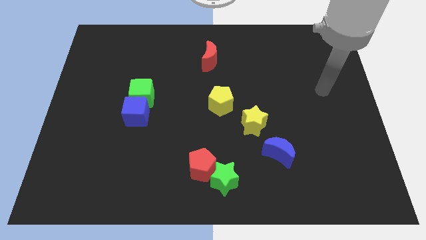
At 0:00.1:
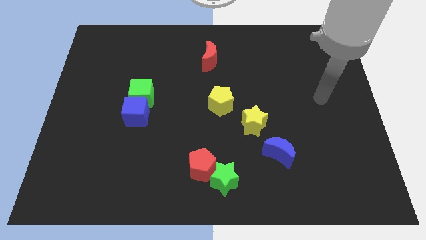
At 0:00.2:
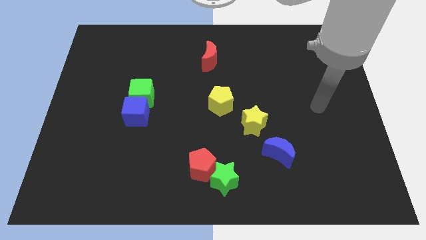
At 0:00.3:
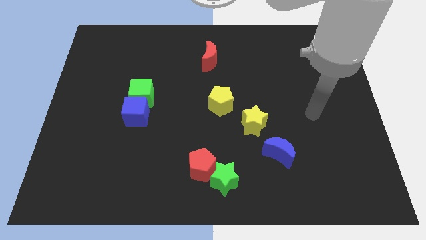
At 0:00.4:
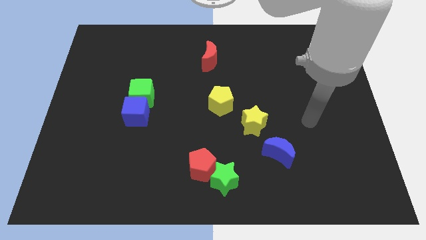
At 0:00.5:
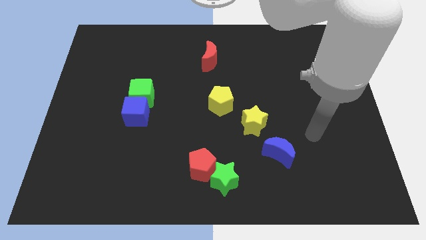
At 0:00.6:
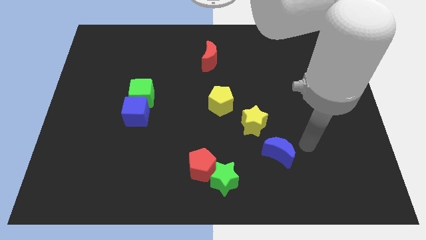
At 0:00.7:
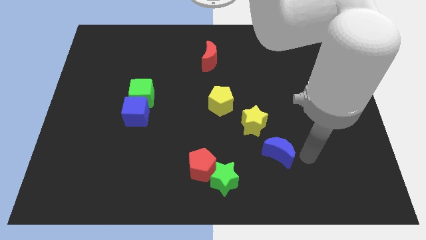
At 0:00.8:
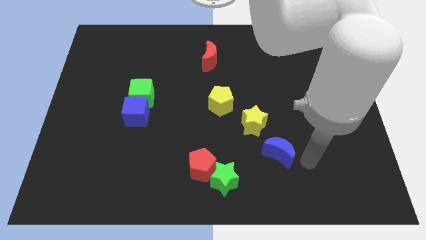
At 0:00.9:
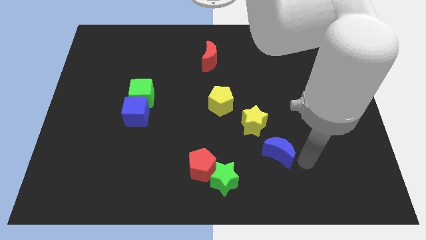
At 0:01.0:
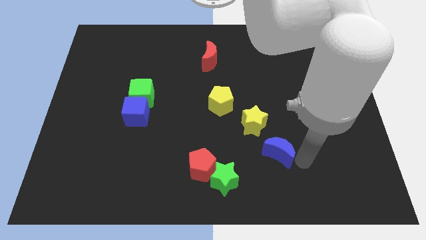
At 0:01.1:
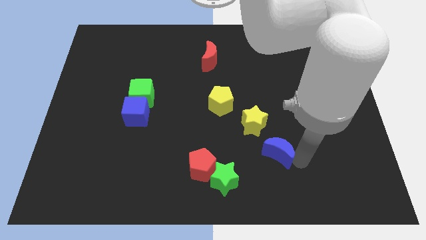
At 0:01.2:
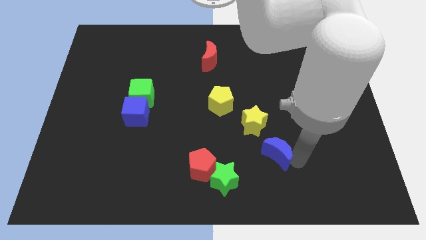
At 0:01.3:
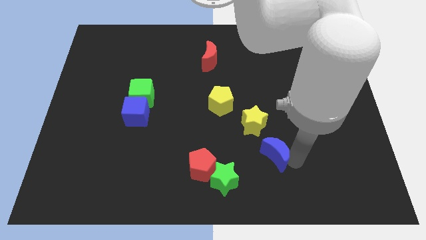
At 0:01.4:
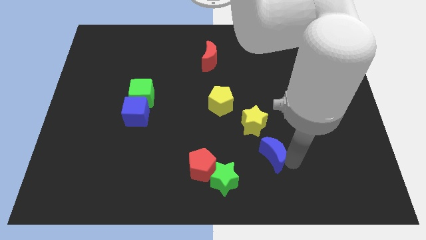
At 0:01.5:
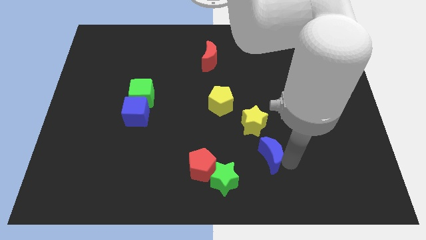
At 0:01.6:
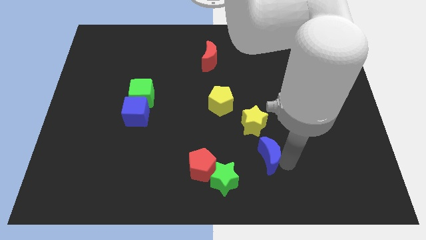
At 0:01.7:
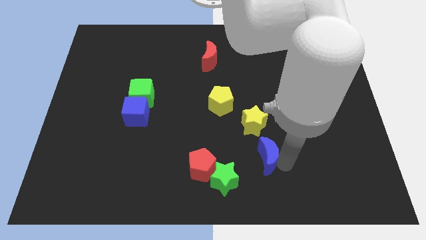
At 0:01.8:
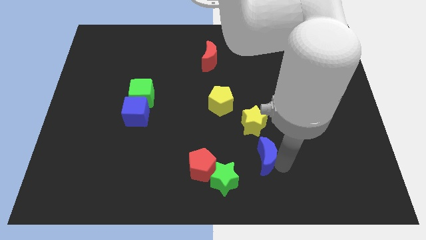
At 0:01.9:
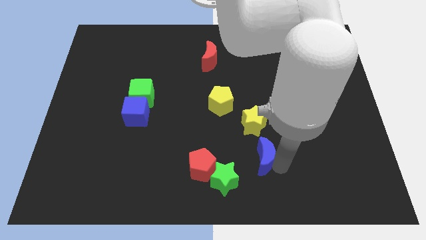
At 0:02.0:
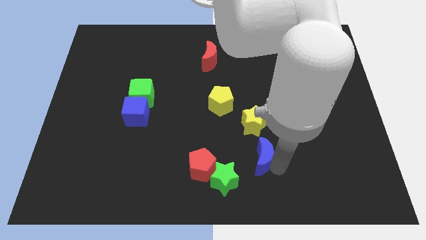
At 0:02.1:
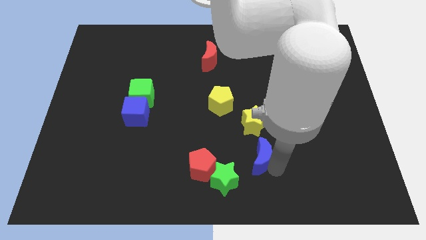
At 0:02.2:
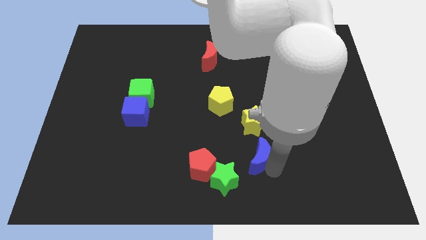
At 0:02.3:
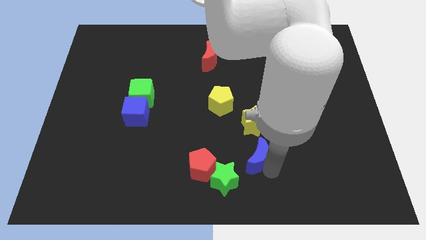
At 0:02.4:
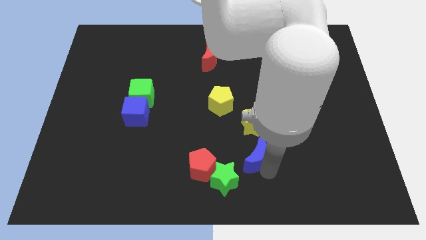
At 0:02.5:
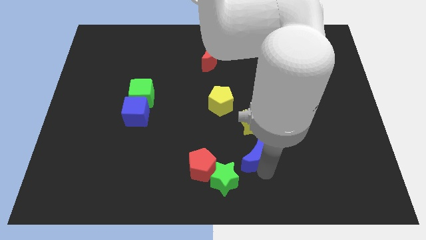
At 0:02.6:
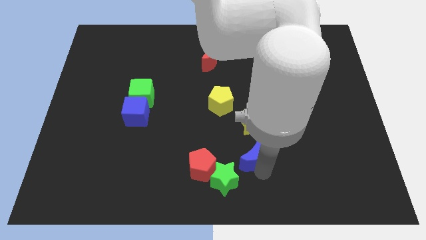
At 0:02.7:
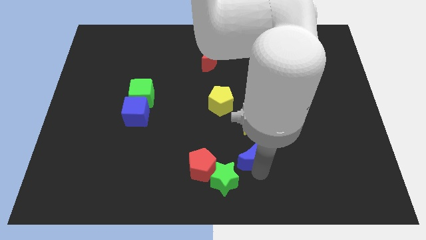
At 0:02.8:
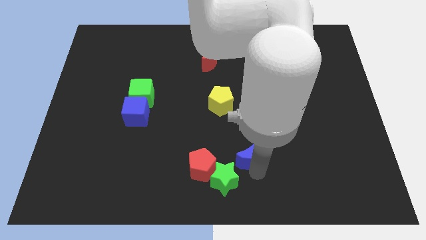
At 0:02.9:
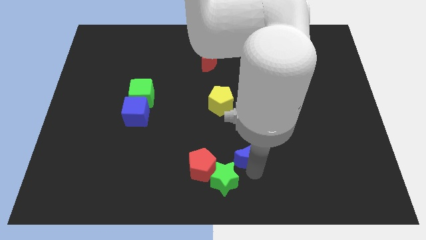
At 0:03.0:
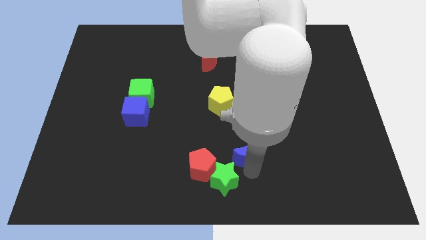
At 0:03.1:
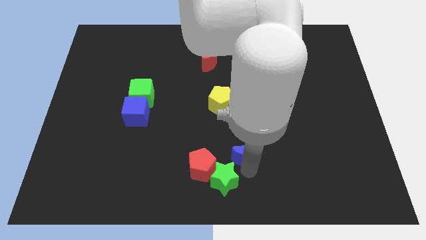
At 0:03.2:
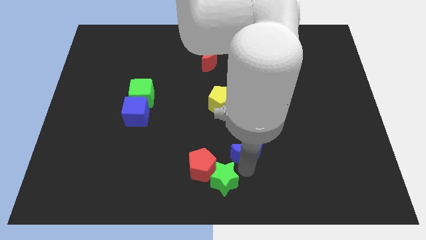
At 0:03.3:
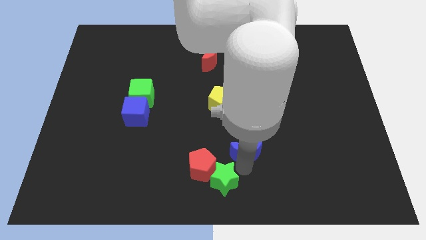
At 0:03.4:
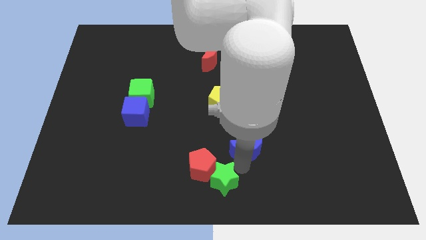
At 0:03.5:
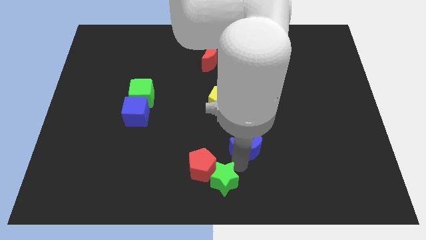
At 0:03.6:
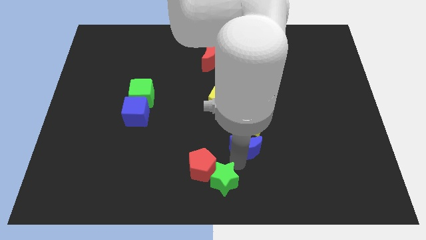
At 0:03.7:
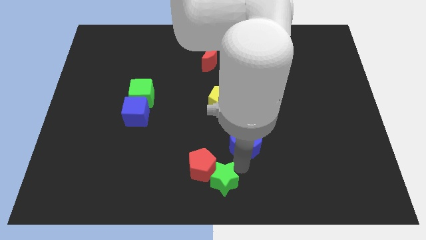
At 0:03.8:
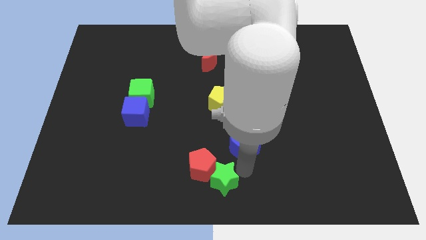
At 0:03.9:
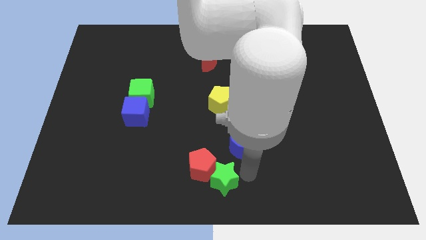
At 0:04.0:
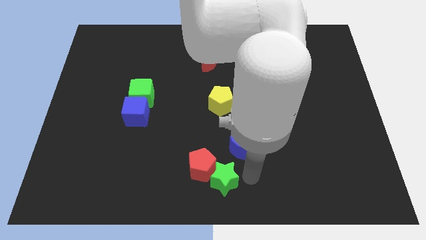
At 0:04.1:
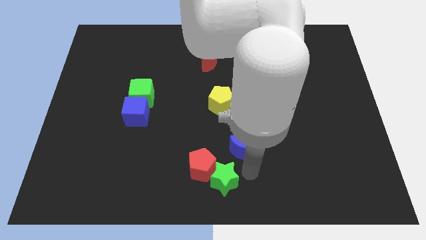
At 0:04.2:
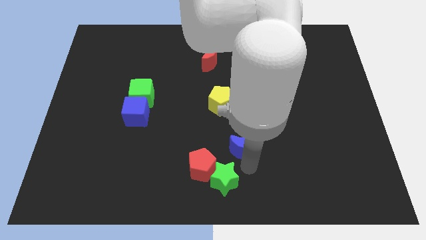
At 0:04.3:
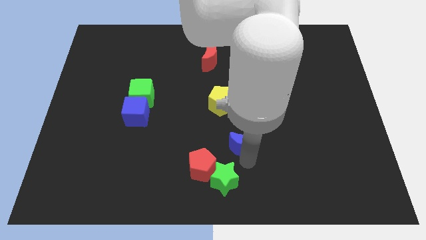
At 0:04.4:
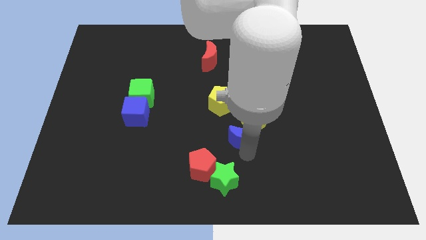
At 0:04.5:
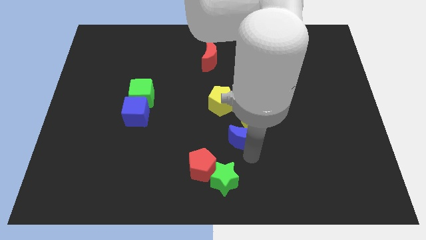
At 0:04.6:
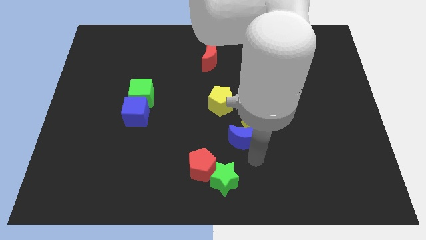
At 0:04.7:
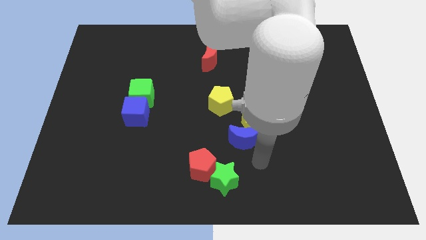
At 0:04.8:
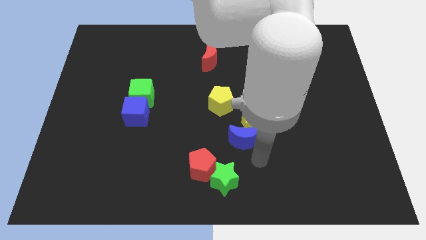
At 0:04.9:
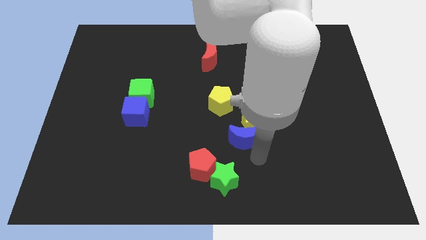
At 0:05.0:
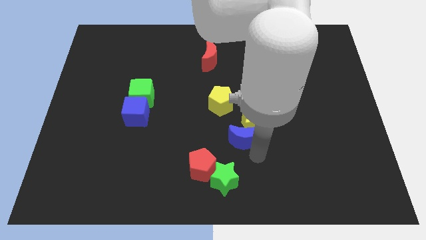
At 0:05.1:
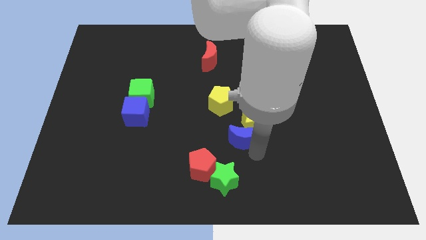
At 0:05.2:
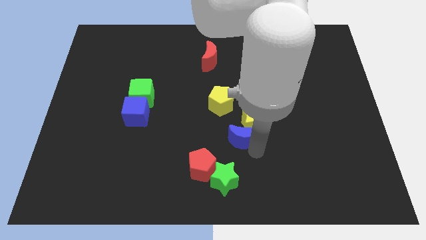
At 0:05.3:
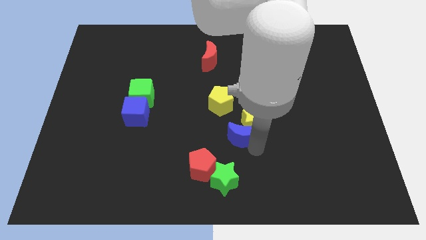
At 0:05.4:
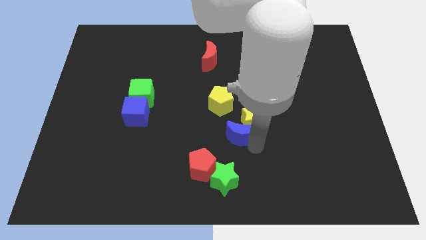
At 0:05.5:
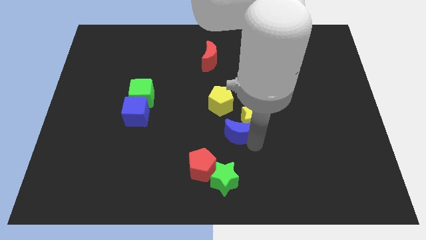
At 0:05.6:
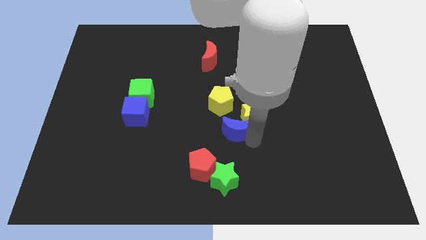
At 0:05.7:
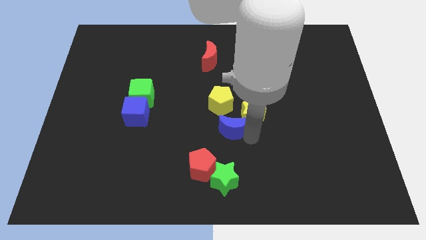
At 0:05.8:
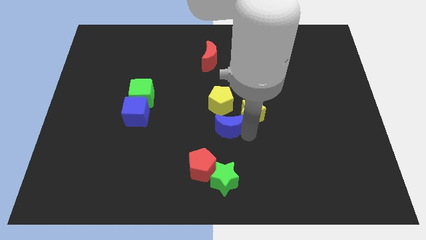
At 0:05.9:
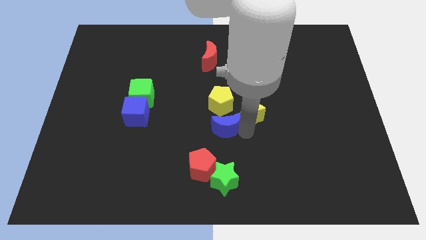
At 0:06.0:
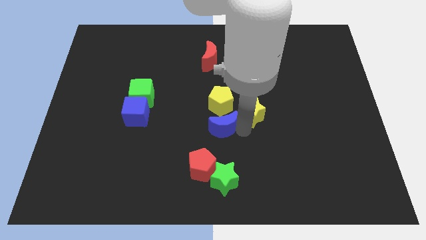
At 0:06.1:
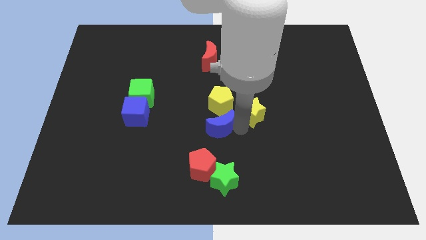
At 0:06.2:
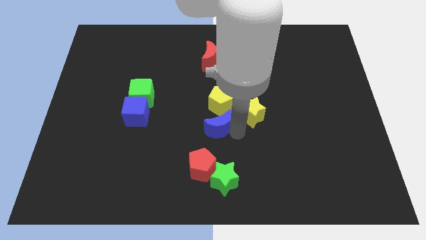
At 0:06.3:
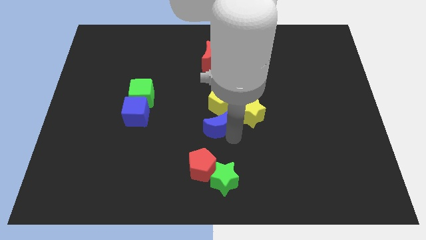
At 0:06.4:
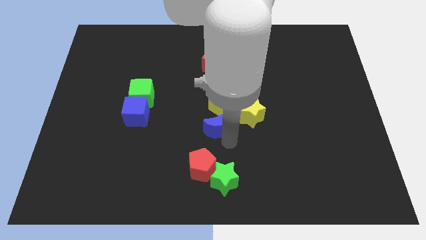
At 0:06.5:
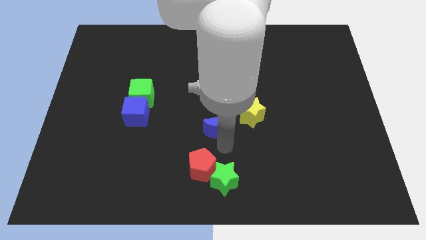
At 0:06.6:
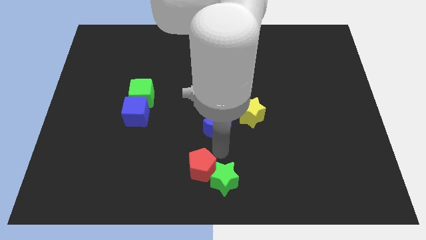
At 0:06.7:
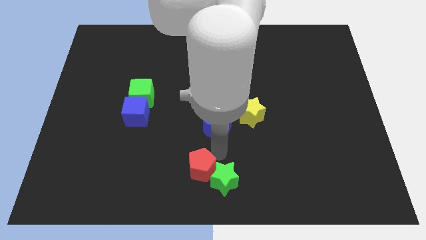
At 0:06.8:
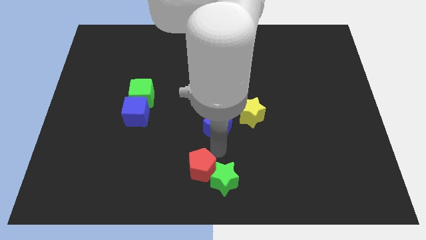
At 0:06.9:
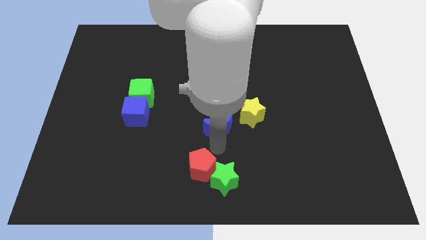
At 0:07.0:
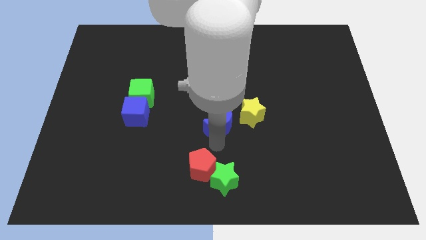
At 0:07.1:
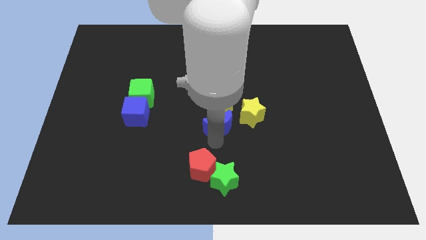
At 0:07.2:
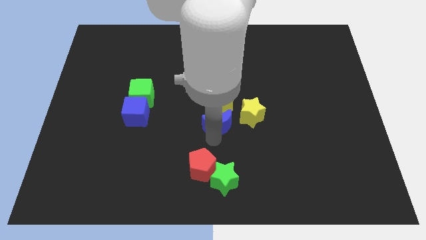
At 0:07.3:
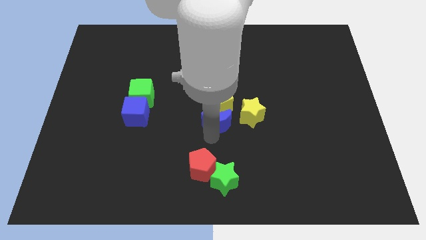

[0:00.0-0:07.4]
push the blue moon to the yellow pentagon
